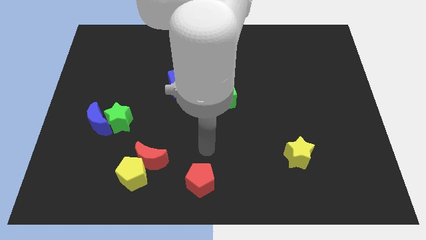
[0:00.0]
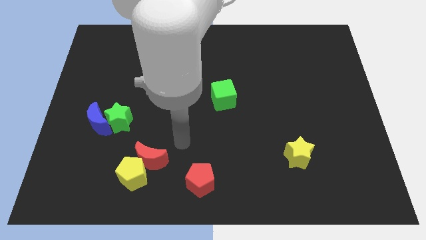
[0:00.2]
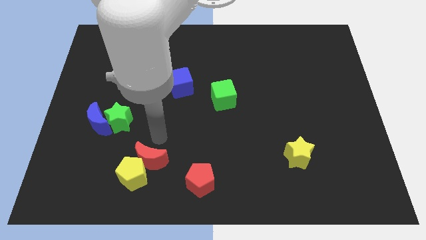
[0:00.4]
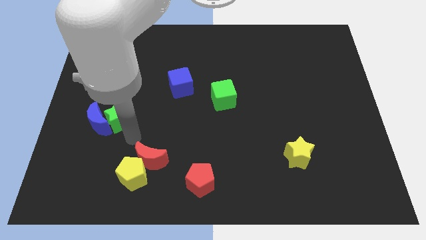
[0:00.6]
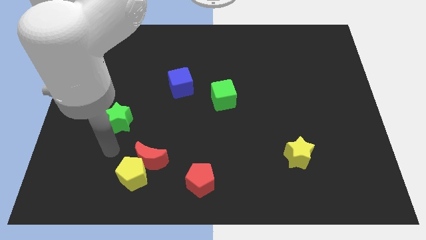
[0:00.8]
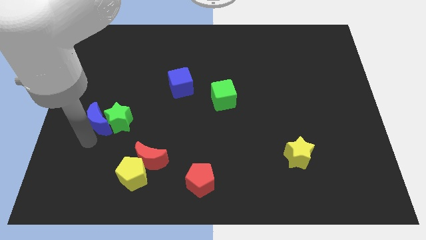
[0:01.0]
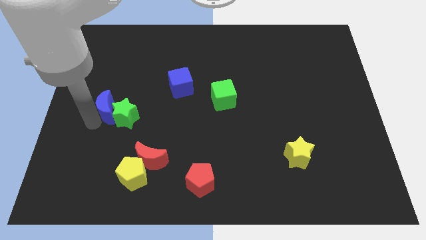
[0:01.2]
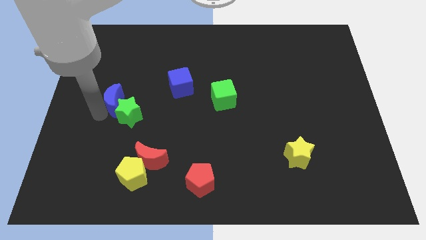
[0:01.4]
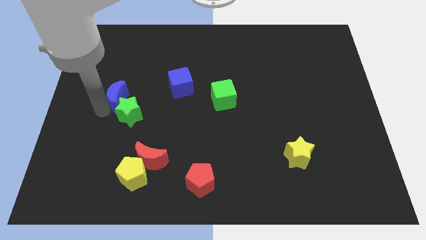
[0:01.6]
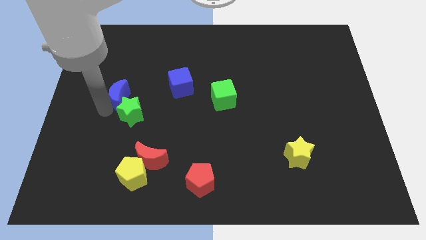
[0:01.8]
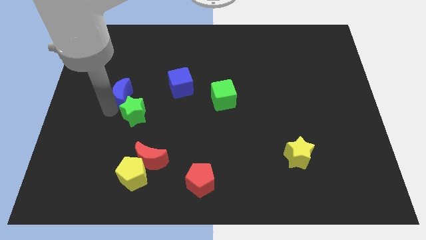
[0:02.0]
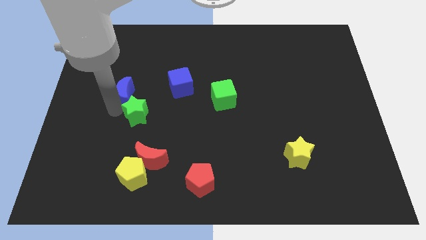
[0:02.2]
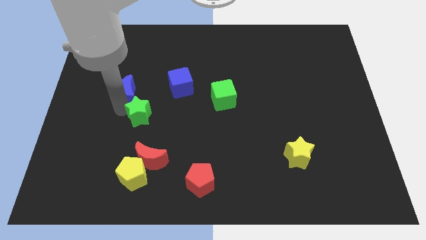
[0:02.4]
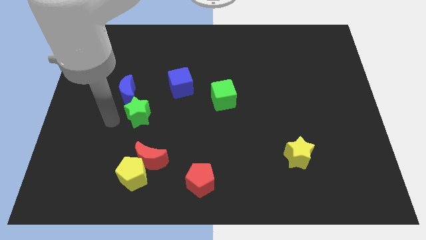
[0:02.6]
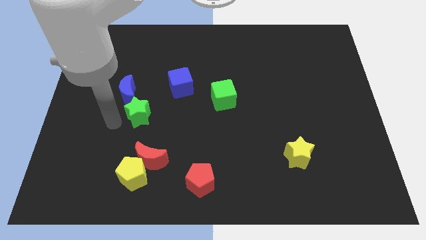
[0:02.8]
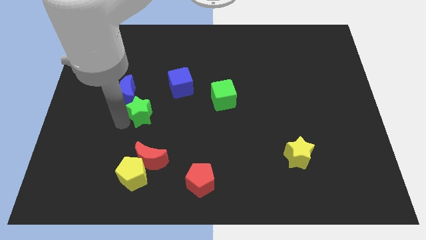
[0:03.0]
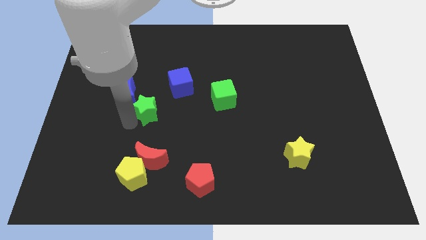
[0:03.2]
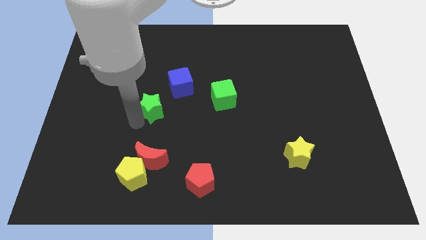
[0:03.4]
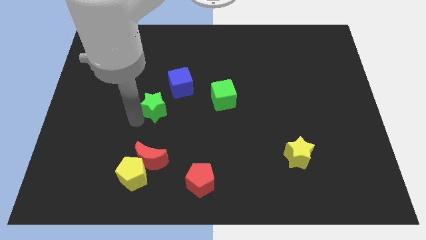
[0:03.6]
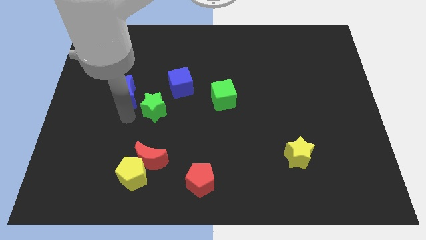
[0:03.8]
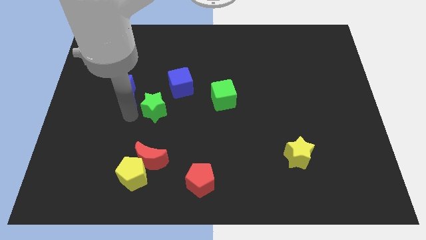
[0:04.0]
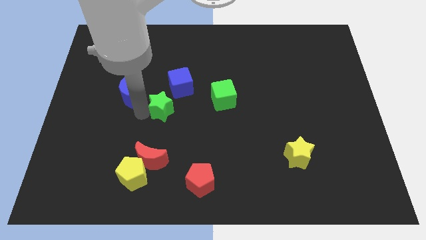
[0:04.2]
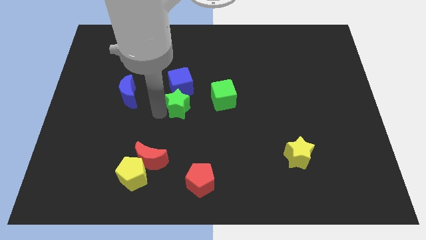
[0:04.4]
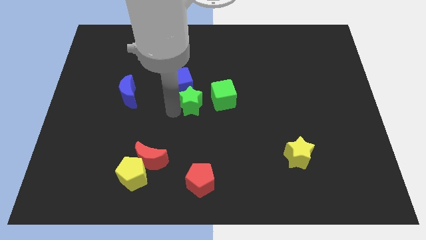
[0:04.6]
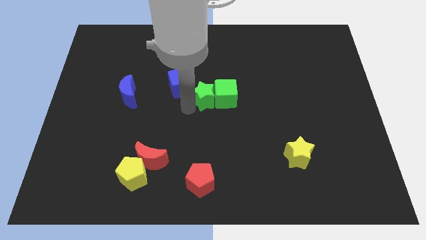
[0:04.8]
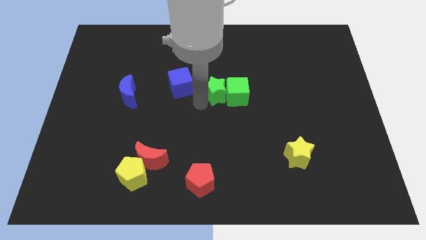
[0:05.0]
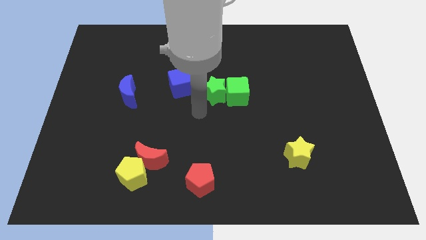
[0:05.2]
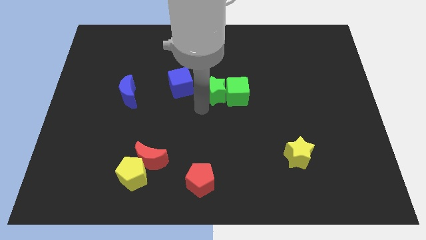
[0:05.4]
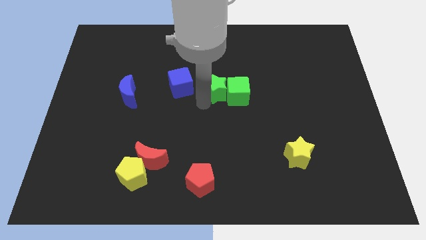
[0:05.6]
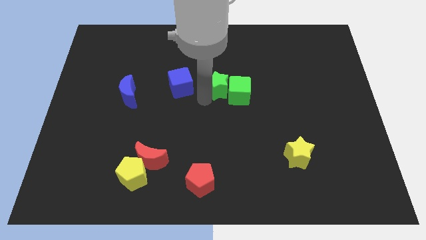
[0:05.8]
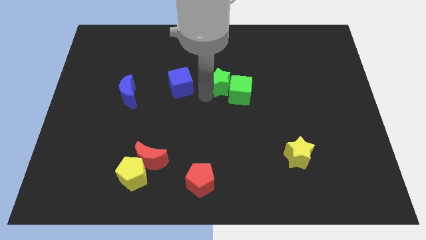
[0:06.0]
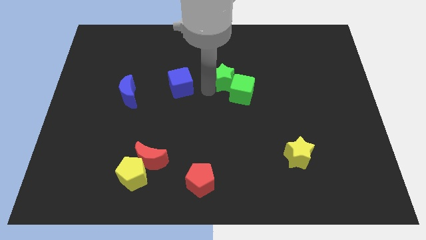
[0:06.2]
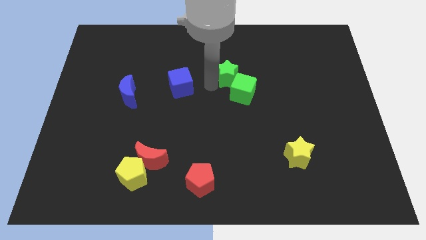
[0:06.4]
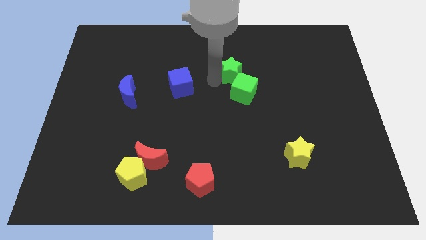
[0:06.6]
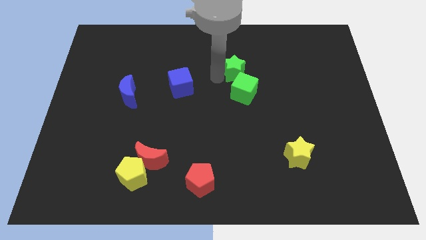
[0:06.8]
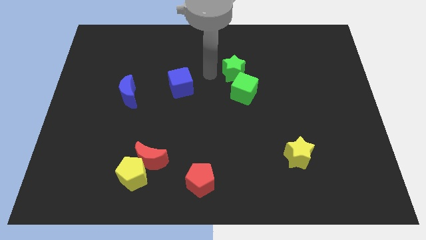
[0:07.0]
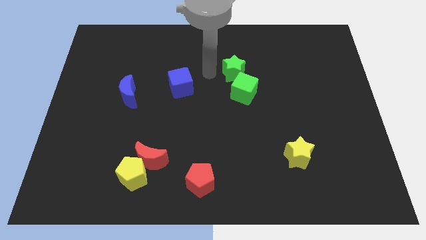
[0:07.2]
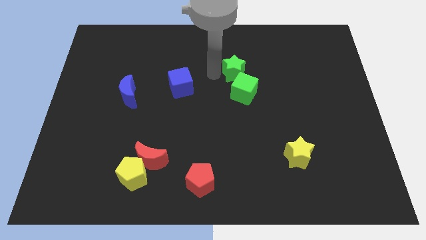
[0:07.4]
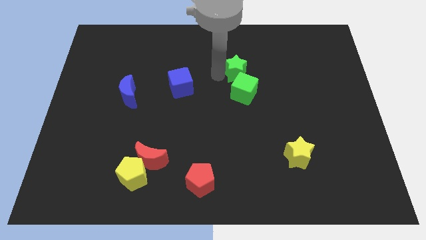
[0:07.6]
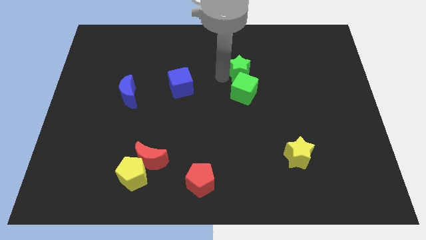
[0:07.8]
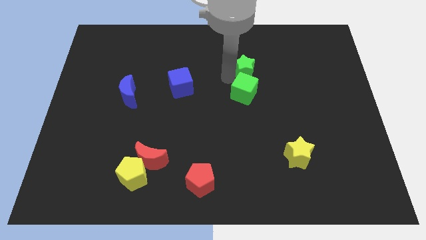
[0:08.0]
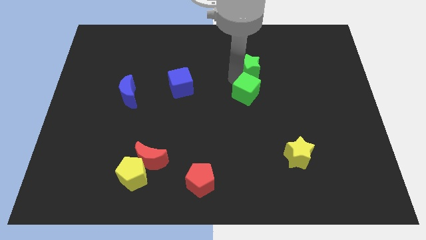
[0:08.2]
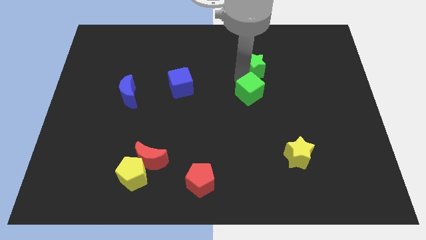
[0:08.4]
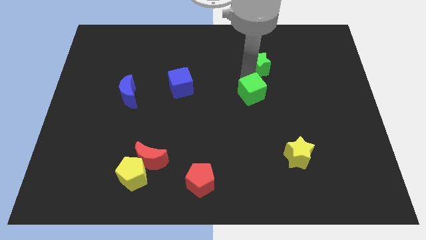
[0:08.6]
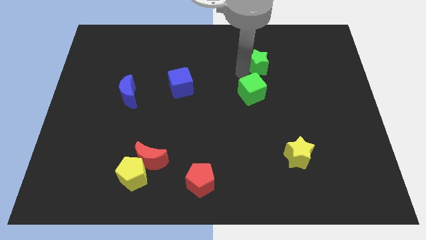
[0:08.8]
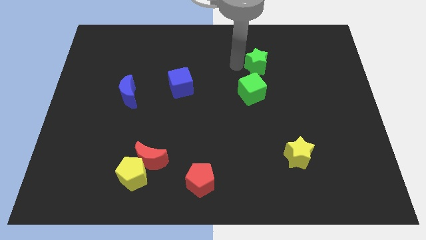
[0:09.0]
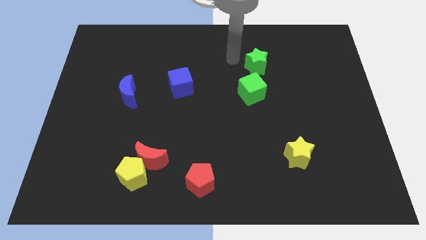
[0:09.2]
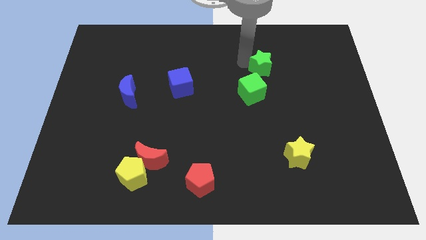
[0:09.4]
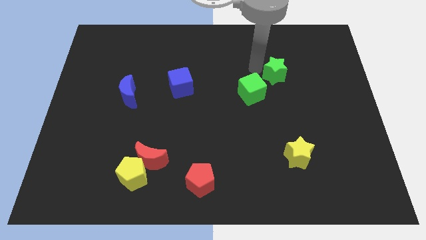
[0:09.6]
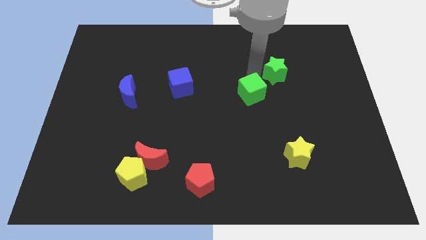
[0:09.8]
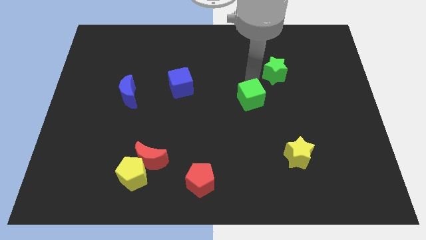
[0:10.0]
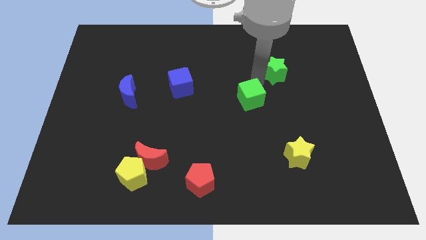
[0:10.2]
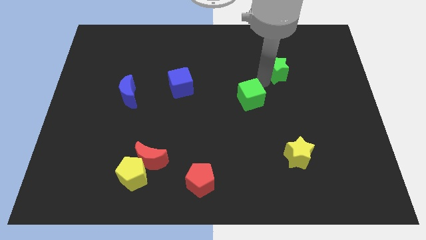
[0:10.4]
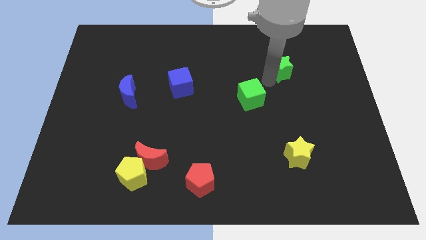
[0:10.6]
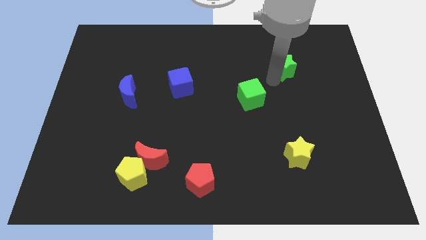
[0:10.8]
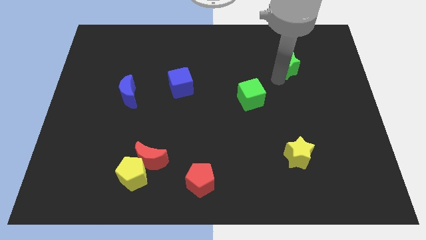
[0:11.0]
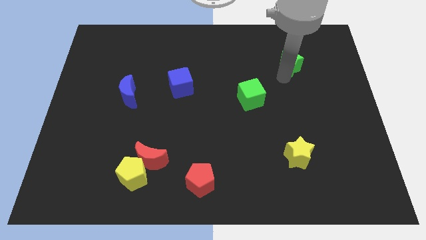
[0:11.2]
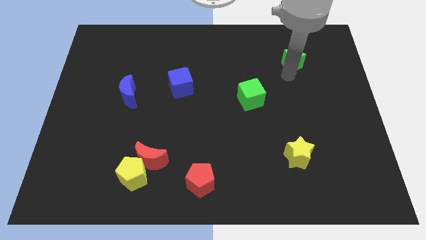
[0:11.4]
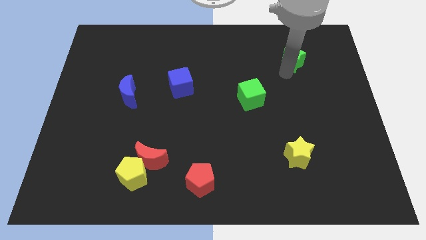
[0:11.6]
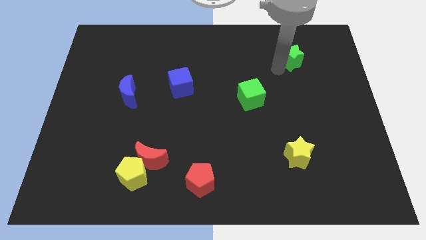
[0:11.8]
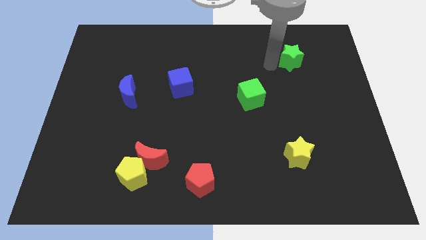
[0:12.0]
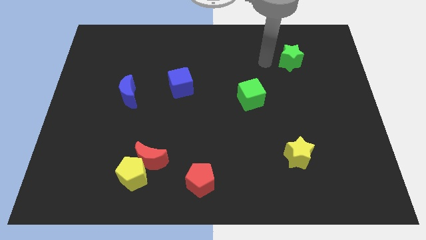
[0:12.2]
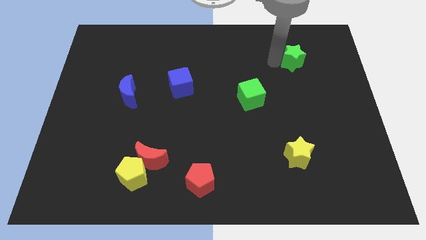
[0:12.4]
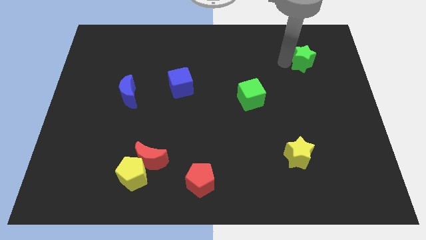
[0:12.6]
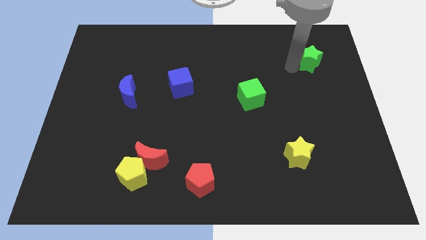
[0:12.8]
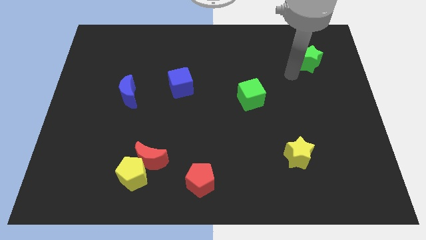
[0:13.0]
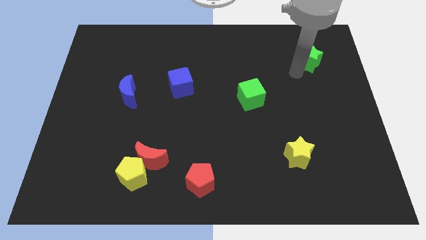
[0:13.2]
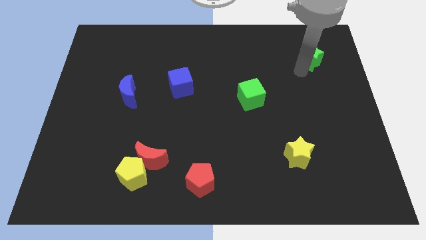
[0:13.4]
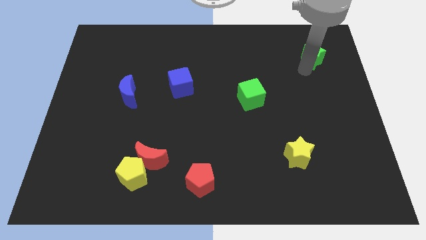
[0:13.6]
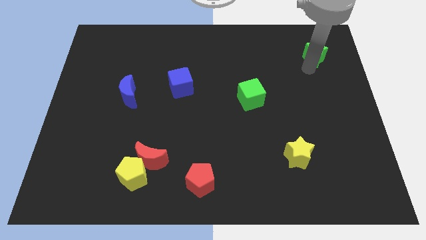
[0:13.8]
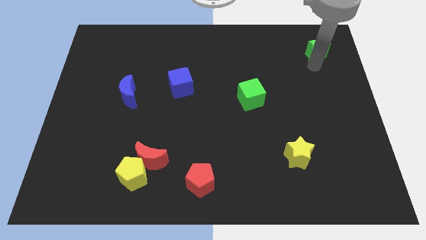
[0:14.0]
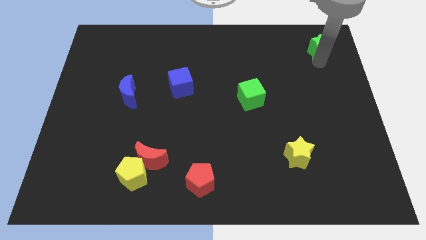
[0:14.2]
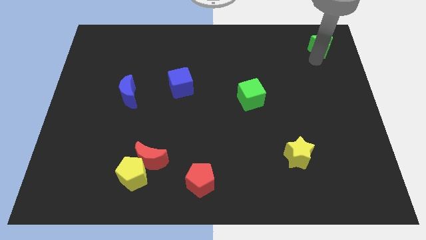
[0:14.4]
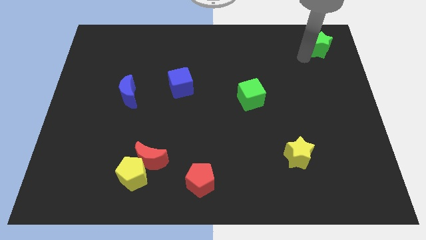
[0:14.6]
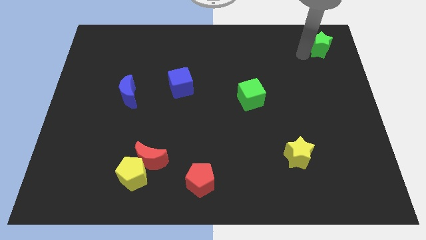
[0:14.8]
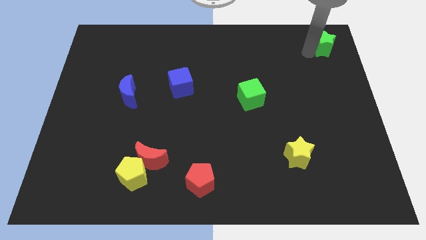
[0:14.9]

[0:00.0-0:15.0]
push the green star to the top right corner
